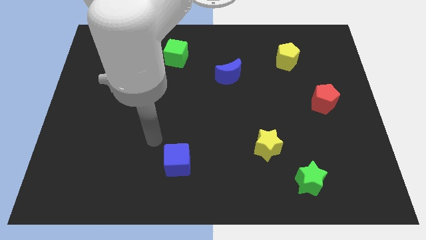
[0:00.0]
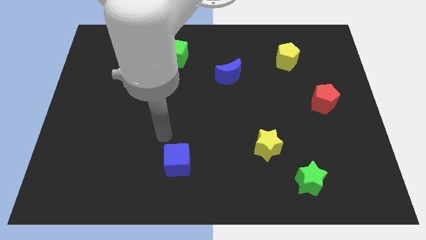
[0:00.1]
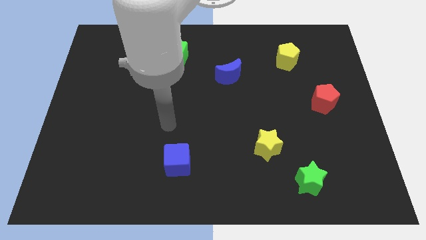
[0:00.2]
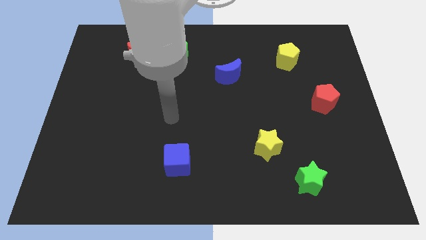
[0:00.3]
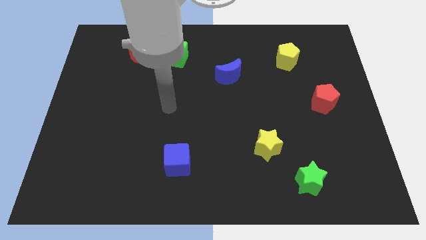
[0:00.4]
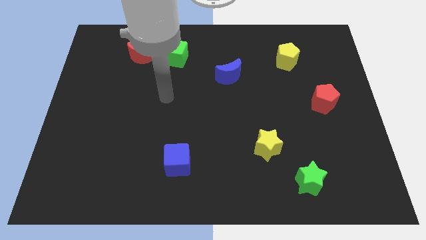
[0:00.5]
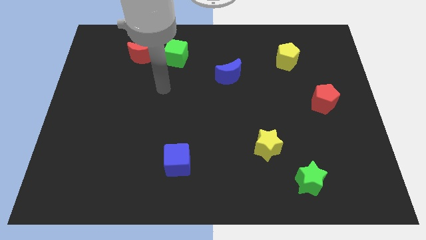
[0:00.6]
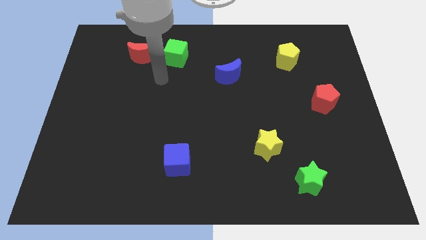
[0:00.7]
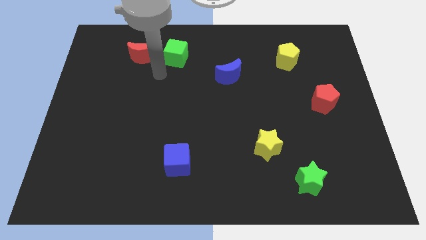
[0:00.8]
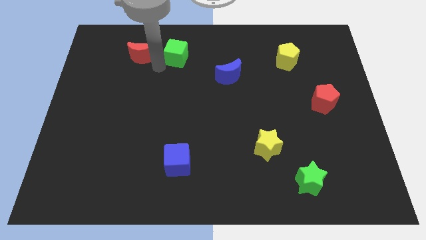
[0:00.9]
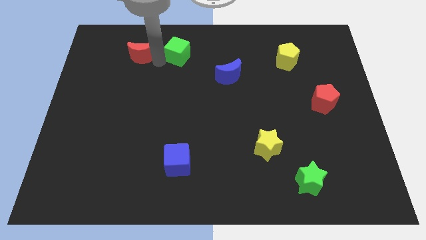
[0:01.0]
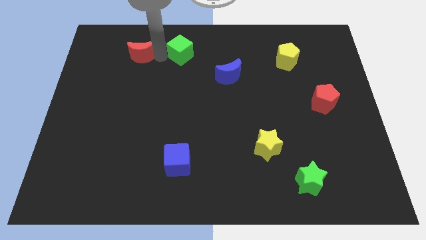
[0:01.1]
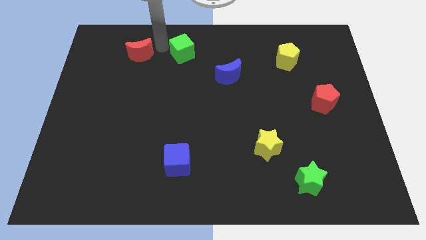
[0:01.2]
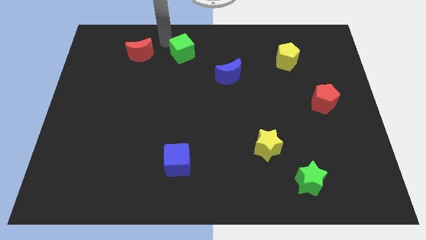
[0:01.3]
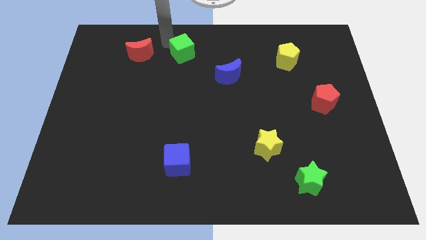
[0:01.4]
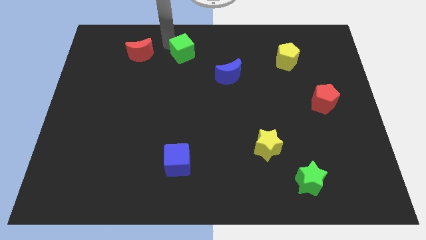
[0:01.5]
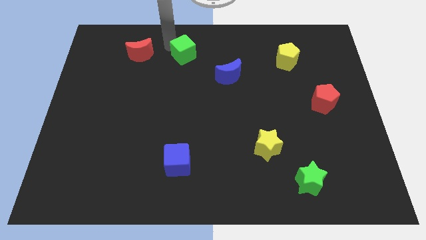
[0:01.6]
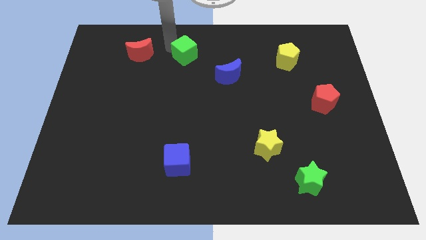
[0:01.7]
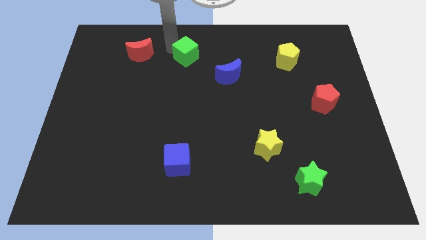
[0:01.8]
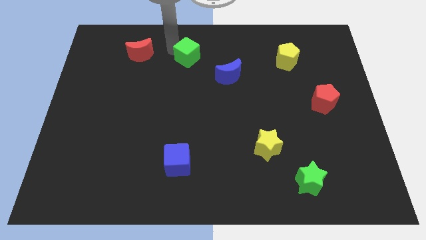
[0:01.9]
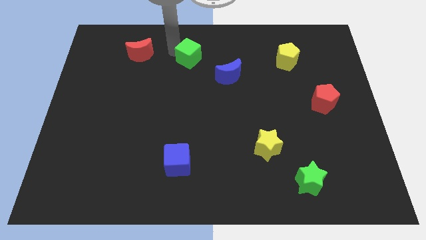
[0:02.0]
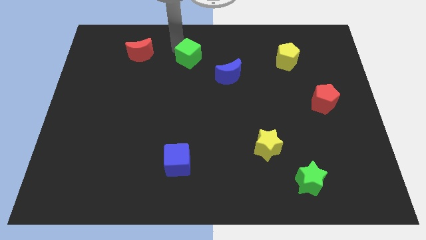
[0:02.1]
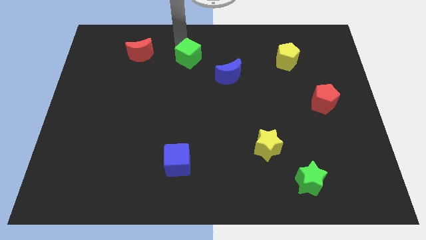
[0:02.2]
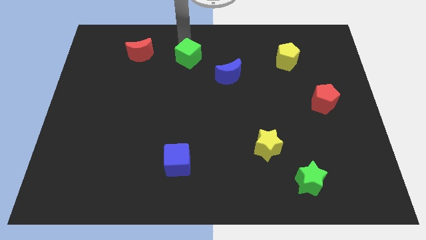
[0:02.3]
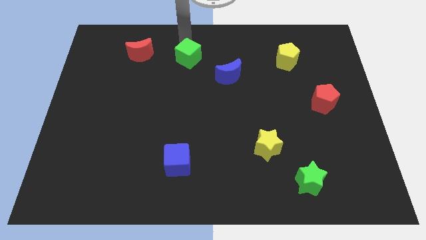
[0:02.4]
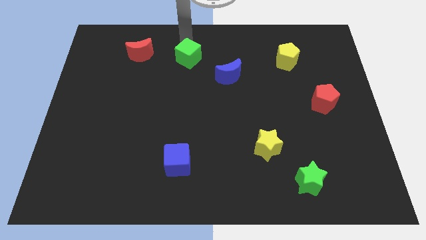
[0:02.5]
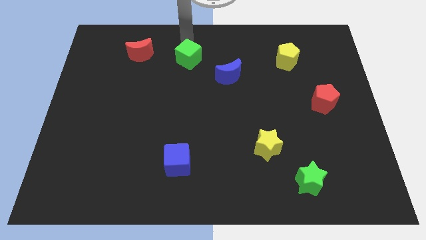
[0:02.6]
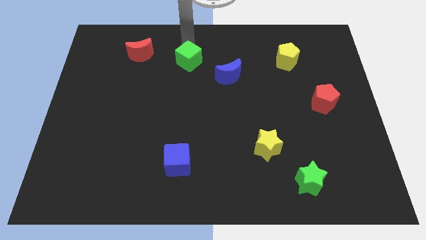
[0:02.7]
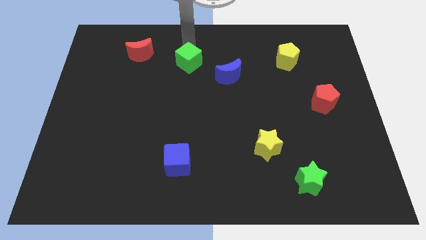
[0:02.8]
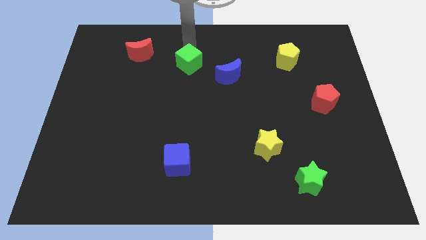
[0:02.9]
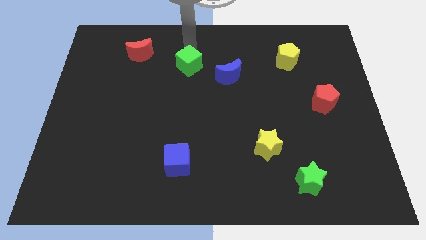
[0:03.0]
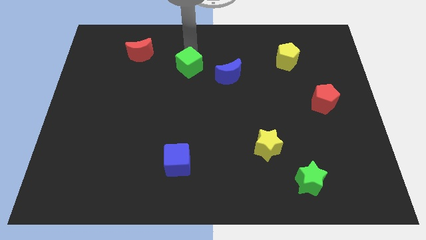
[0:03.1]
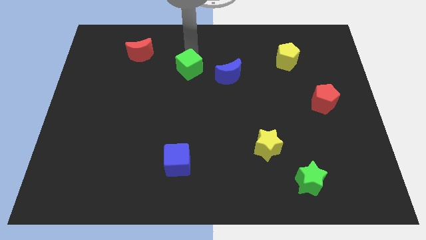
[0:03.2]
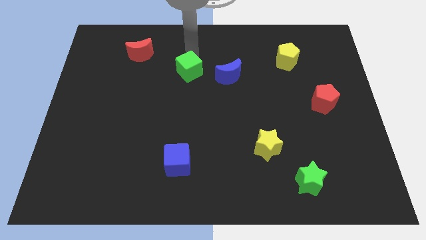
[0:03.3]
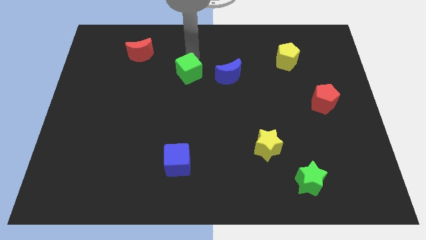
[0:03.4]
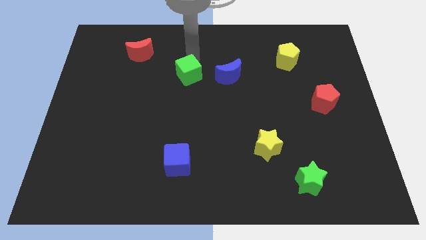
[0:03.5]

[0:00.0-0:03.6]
push the green cube diagonally downwards and right a bit

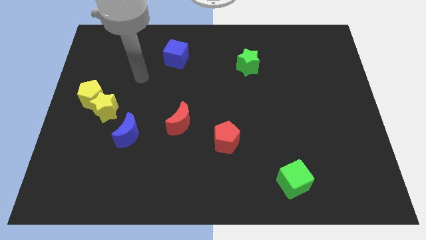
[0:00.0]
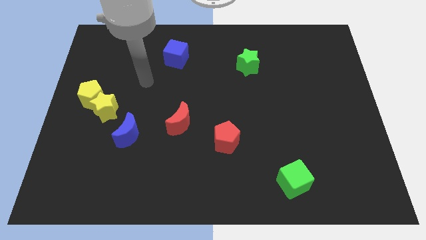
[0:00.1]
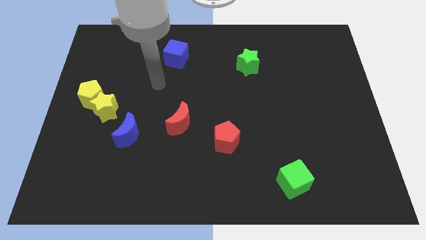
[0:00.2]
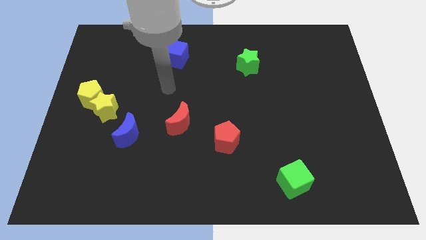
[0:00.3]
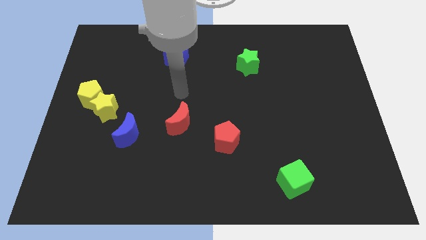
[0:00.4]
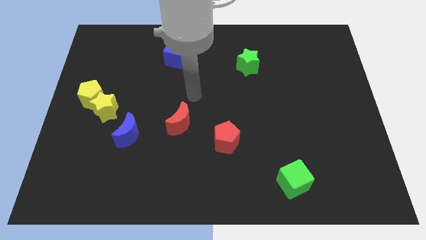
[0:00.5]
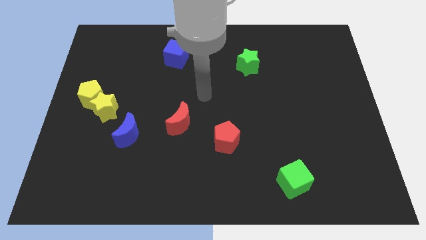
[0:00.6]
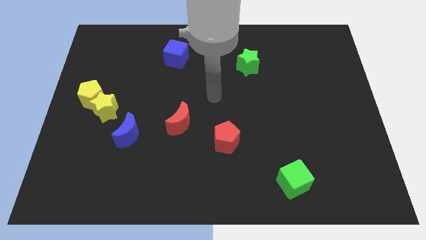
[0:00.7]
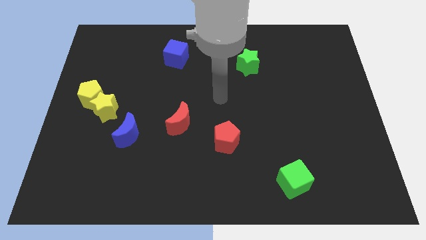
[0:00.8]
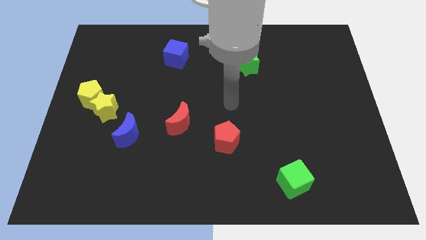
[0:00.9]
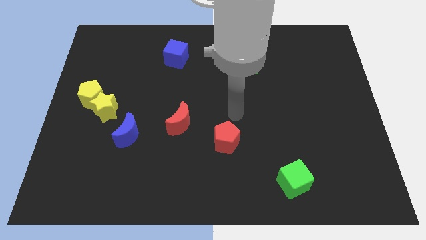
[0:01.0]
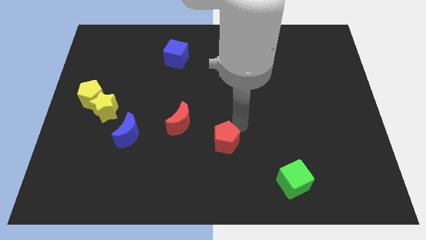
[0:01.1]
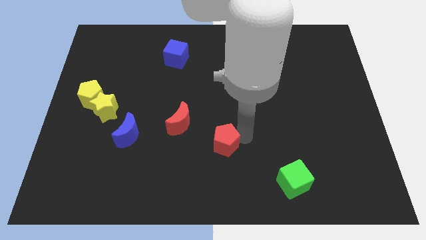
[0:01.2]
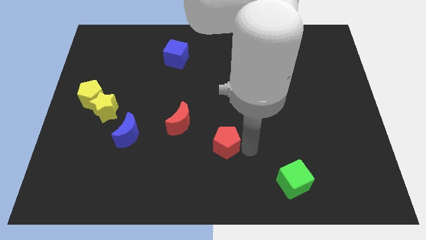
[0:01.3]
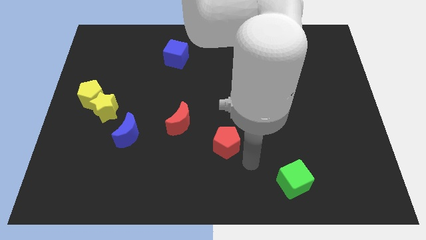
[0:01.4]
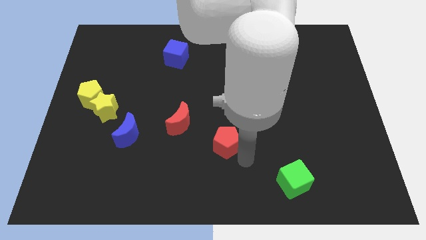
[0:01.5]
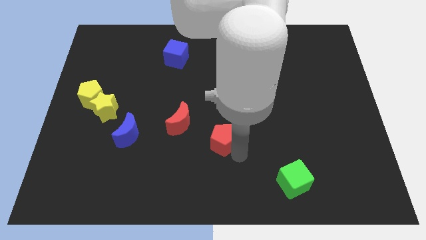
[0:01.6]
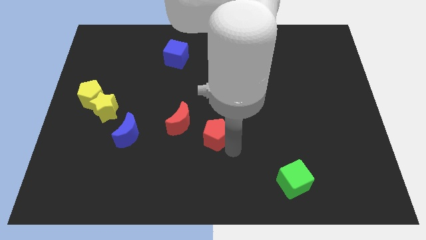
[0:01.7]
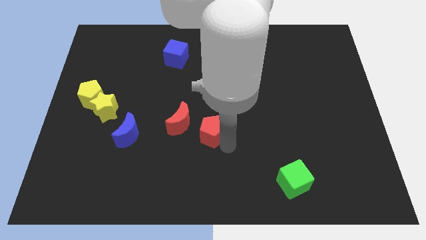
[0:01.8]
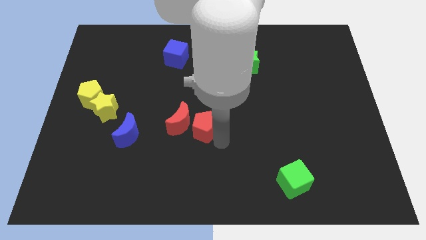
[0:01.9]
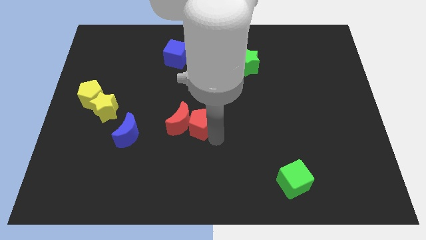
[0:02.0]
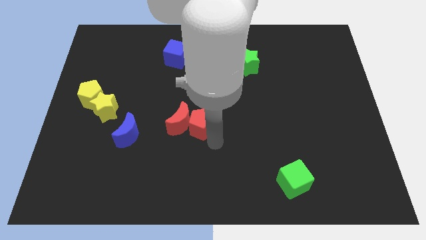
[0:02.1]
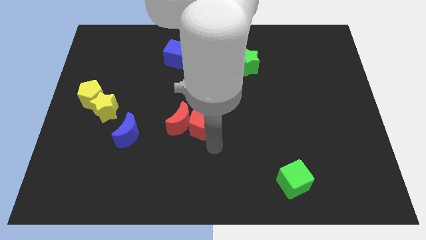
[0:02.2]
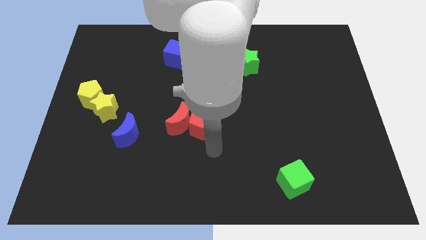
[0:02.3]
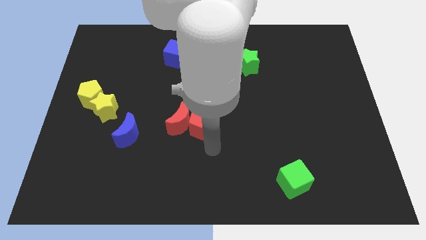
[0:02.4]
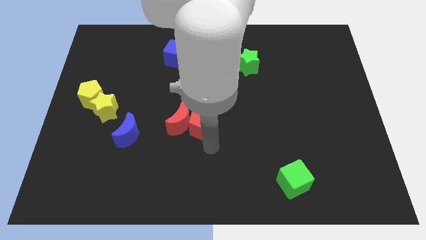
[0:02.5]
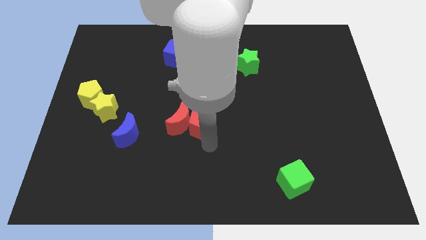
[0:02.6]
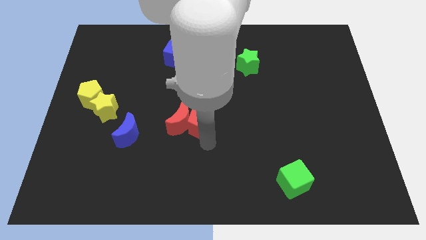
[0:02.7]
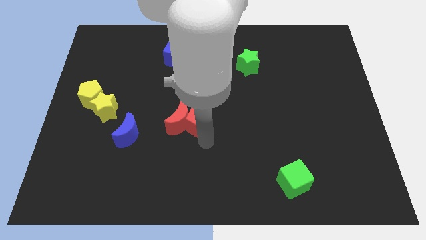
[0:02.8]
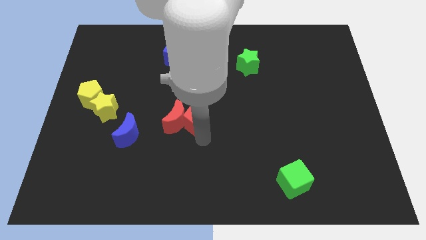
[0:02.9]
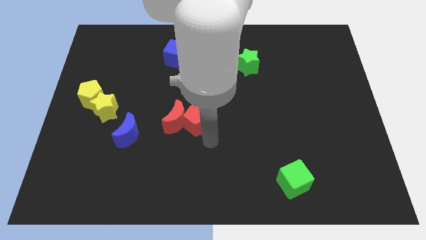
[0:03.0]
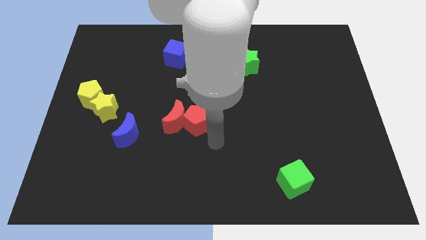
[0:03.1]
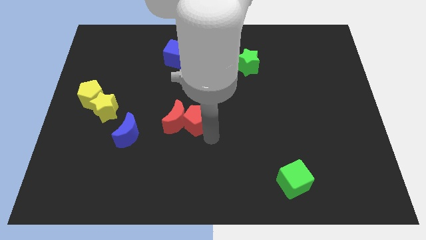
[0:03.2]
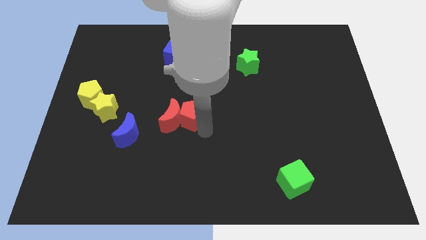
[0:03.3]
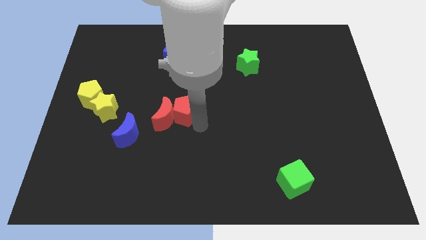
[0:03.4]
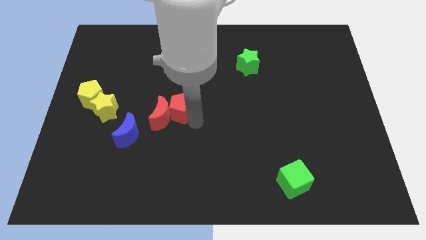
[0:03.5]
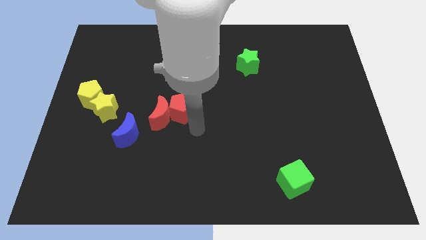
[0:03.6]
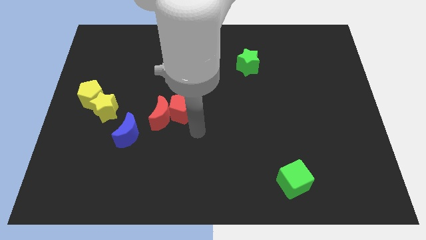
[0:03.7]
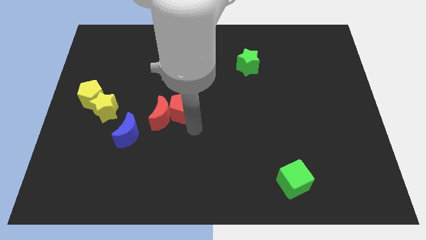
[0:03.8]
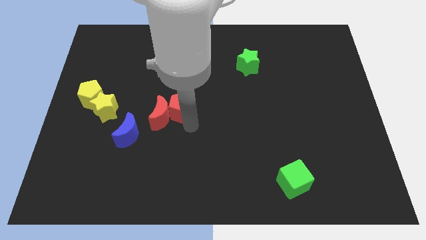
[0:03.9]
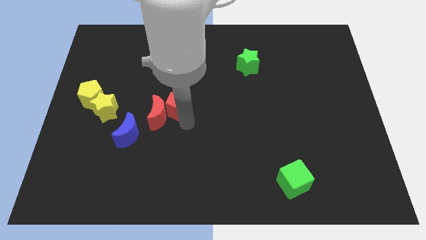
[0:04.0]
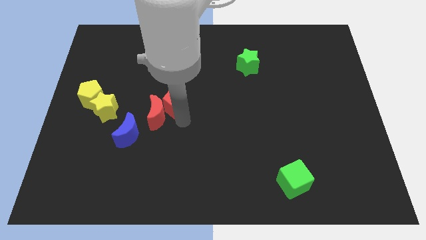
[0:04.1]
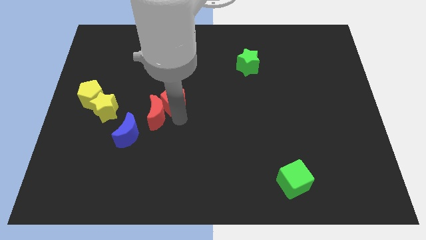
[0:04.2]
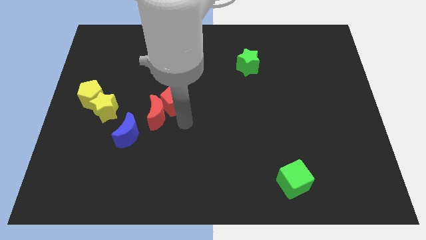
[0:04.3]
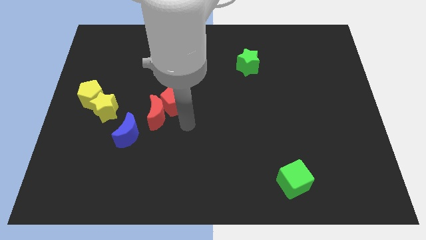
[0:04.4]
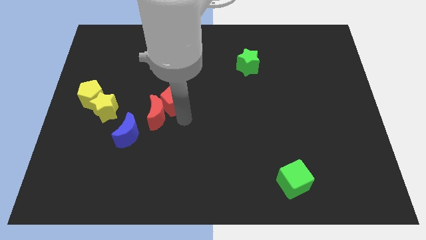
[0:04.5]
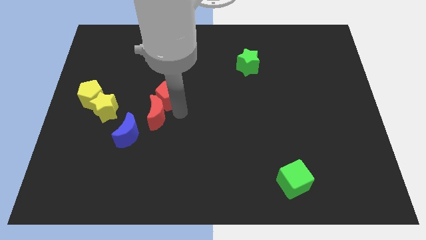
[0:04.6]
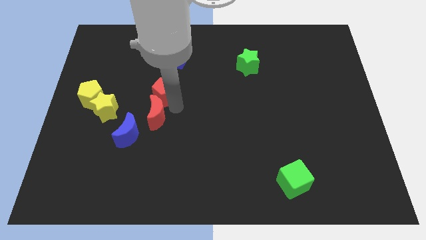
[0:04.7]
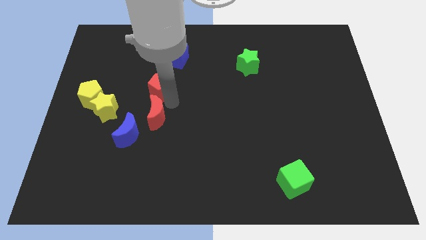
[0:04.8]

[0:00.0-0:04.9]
move the red pentagon up and left diagonally
